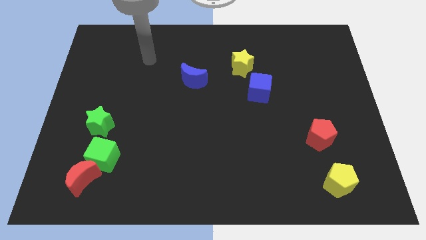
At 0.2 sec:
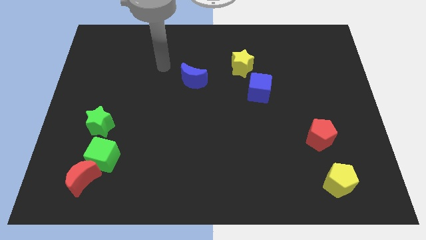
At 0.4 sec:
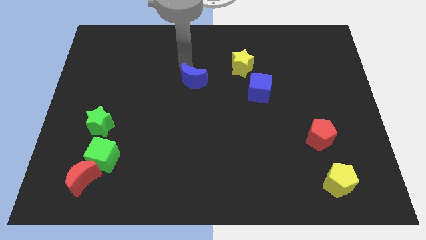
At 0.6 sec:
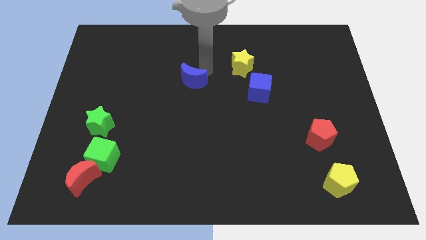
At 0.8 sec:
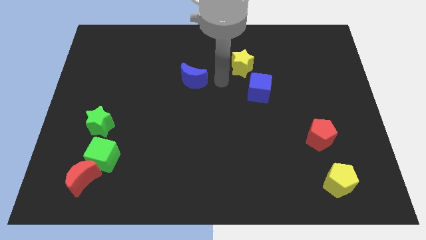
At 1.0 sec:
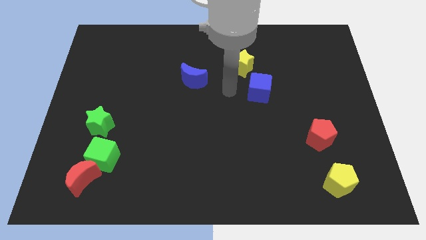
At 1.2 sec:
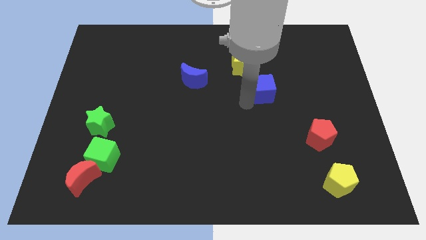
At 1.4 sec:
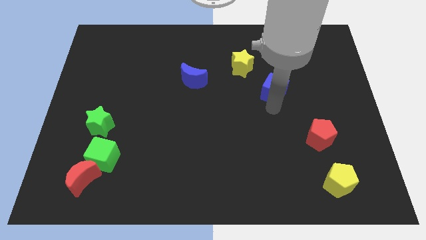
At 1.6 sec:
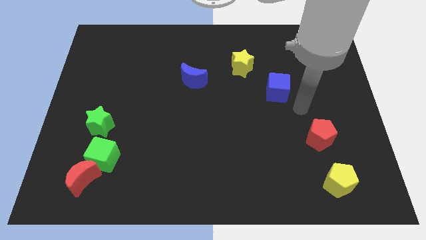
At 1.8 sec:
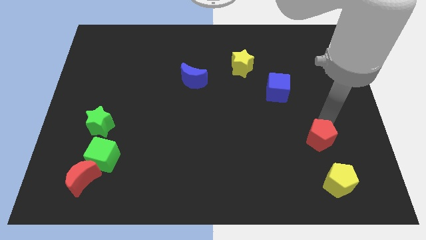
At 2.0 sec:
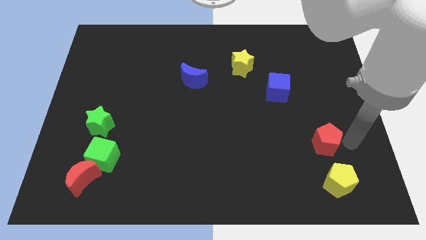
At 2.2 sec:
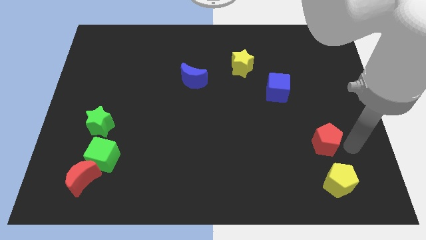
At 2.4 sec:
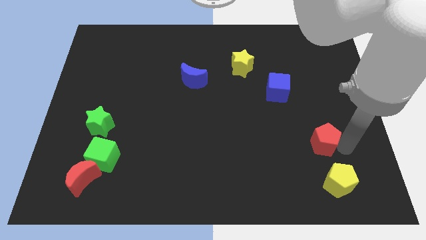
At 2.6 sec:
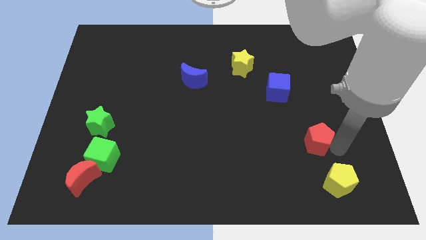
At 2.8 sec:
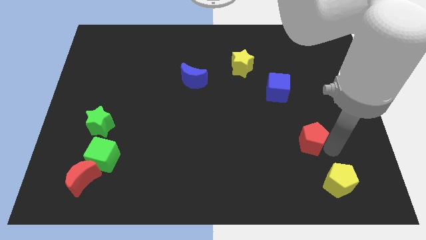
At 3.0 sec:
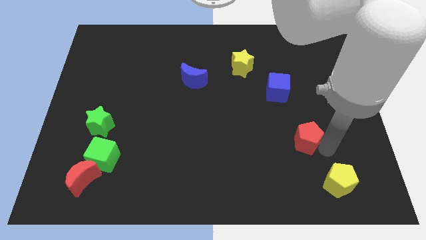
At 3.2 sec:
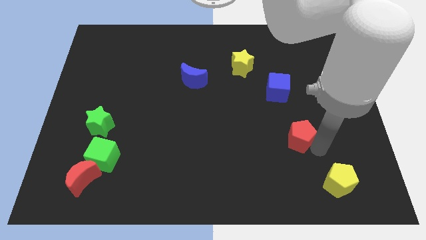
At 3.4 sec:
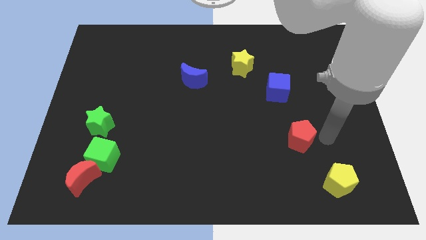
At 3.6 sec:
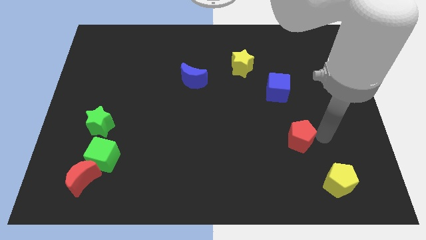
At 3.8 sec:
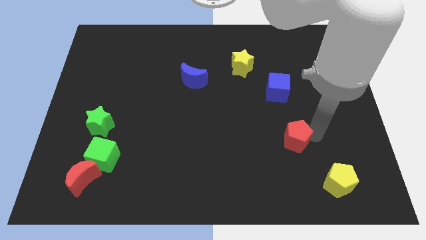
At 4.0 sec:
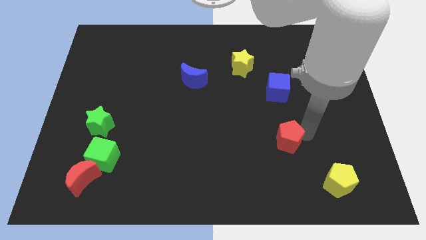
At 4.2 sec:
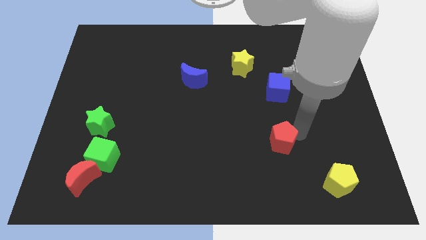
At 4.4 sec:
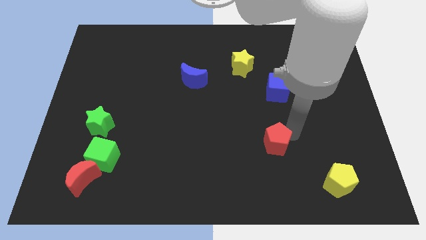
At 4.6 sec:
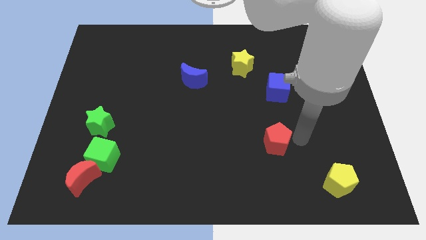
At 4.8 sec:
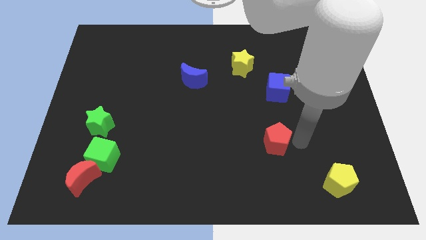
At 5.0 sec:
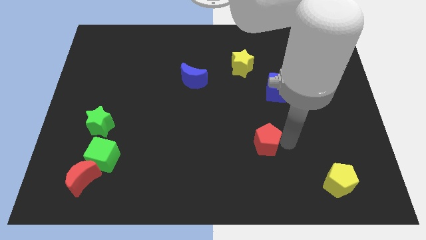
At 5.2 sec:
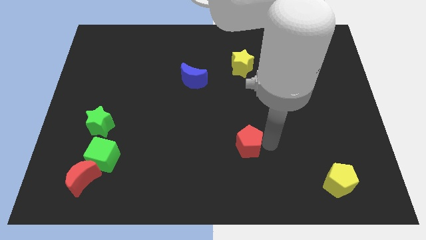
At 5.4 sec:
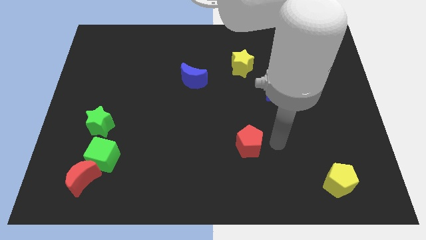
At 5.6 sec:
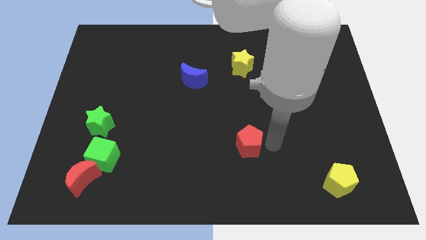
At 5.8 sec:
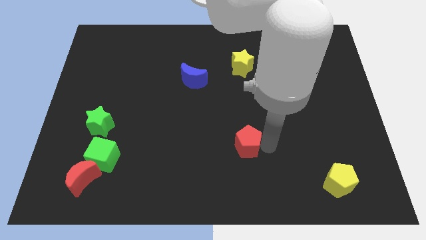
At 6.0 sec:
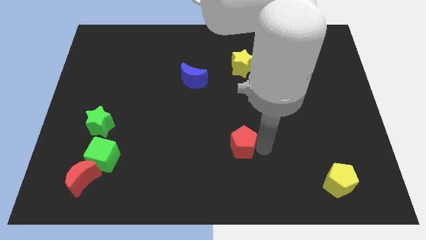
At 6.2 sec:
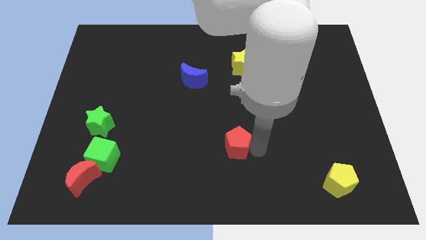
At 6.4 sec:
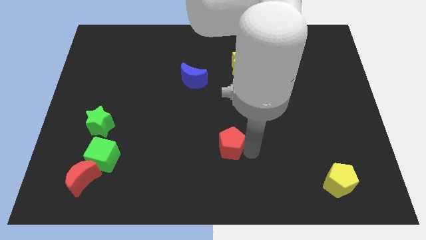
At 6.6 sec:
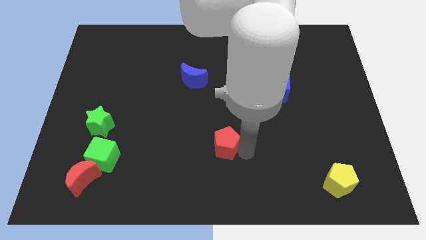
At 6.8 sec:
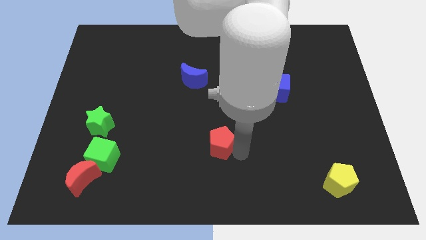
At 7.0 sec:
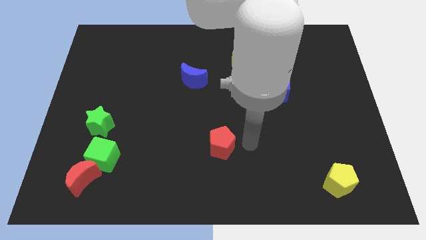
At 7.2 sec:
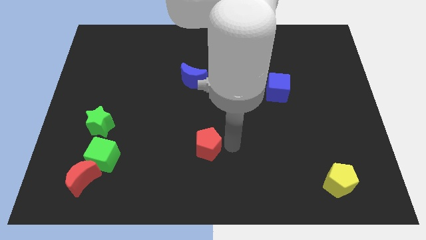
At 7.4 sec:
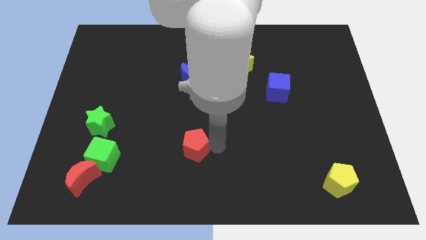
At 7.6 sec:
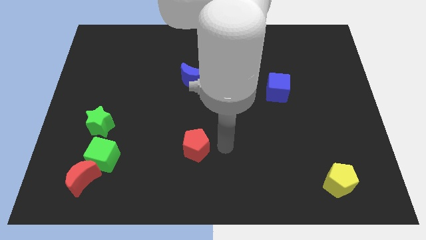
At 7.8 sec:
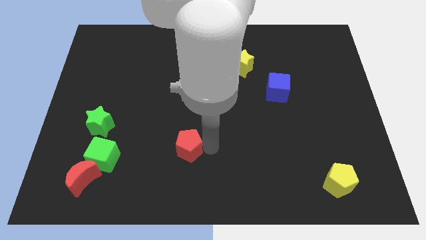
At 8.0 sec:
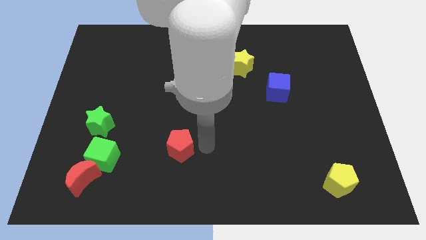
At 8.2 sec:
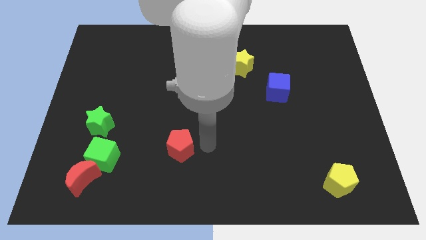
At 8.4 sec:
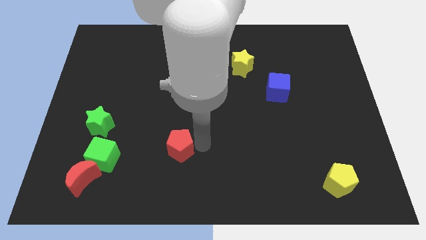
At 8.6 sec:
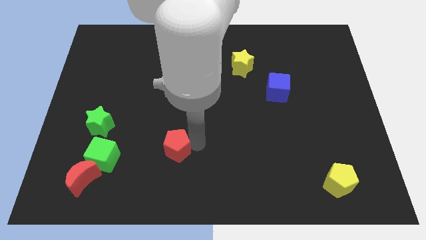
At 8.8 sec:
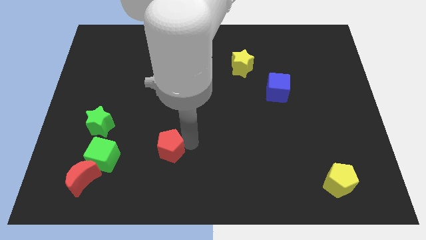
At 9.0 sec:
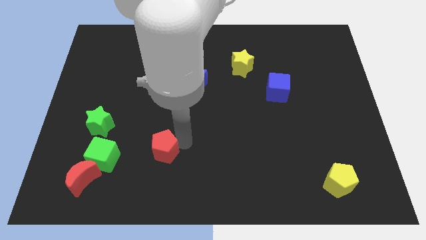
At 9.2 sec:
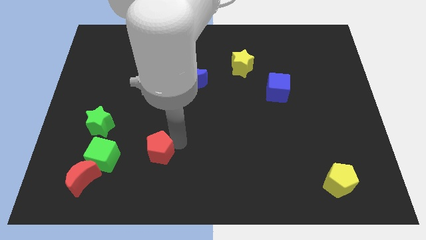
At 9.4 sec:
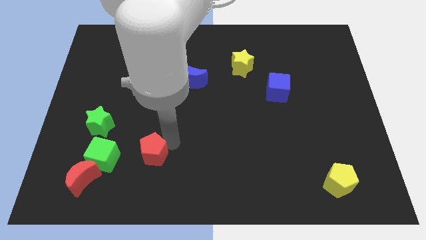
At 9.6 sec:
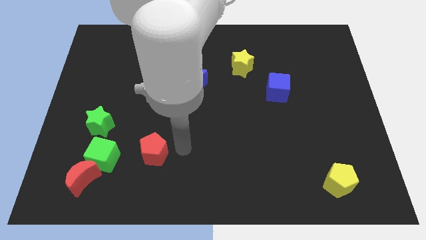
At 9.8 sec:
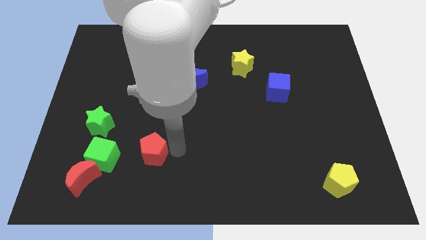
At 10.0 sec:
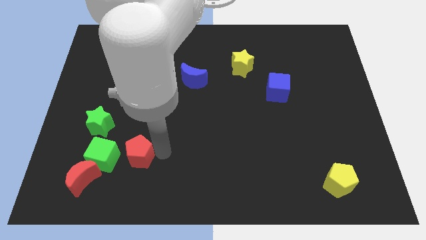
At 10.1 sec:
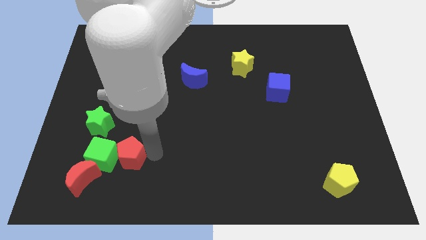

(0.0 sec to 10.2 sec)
slide the red pentagon next to the green cube

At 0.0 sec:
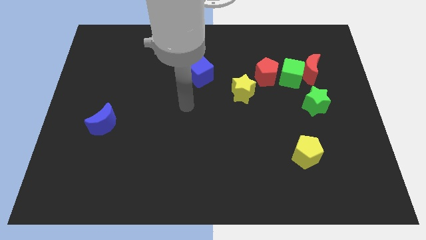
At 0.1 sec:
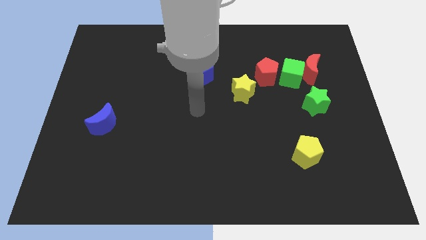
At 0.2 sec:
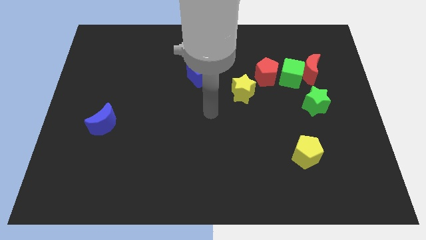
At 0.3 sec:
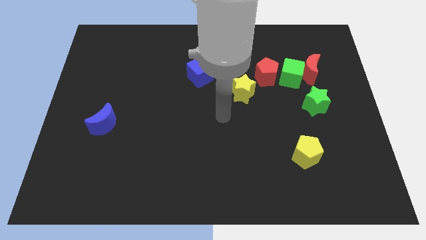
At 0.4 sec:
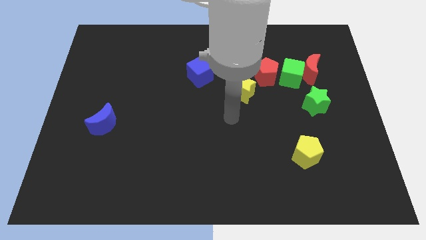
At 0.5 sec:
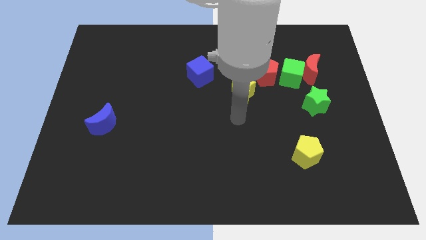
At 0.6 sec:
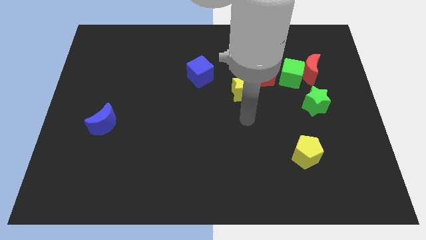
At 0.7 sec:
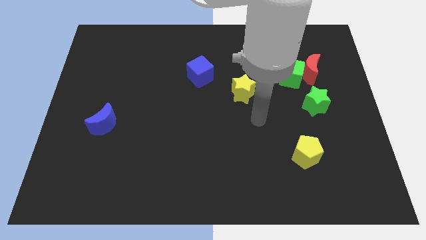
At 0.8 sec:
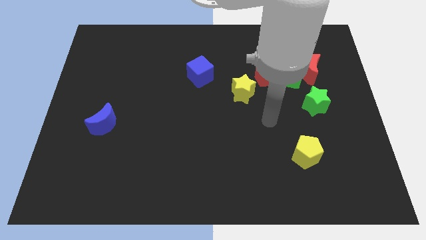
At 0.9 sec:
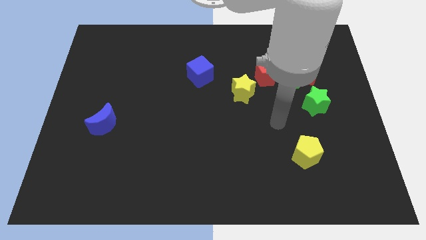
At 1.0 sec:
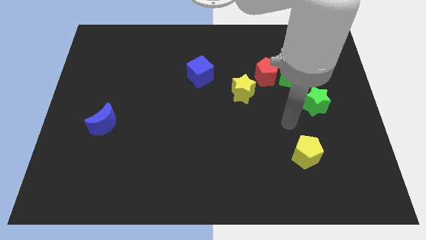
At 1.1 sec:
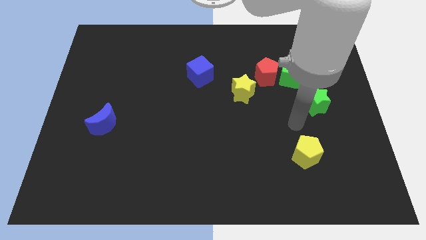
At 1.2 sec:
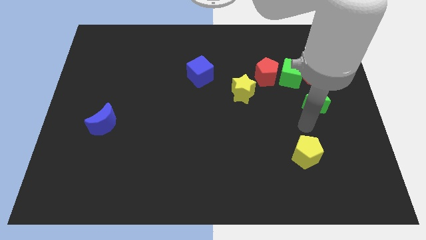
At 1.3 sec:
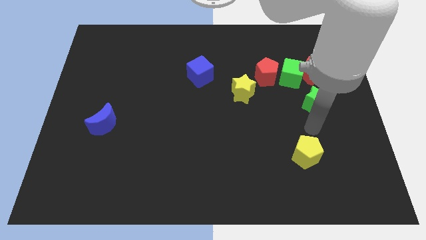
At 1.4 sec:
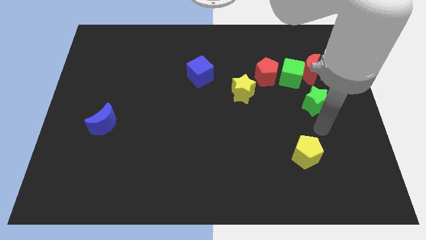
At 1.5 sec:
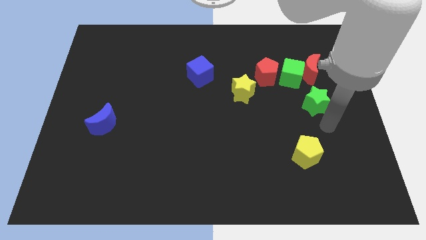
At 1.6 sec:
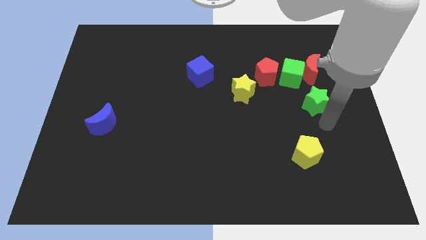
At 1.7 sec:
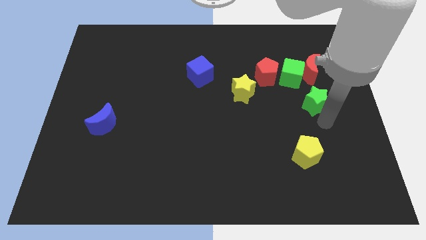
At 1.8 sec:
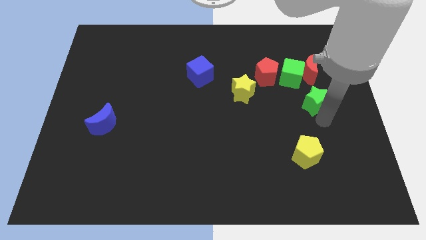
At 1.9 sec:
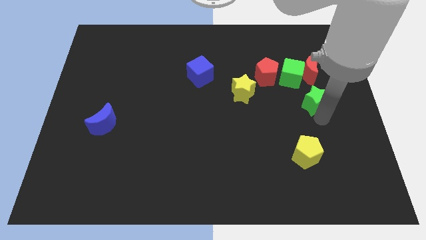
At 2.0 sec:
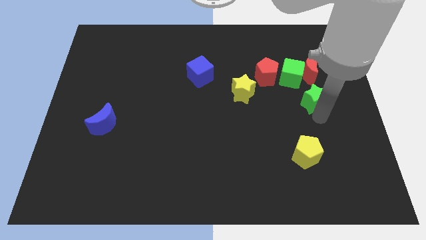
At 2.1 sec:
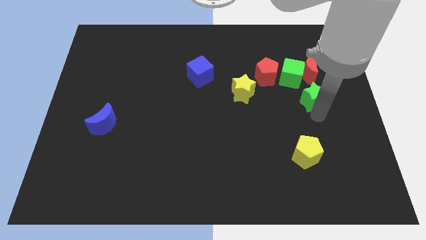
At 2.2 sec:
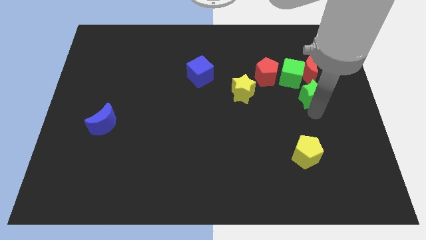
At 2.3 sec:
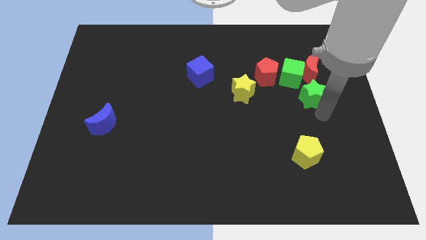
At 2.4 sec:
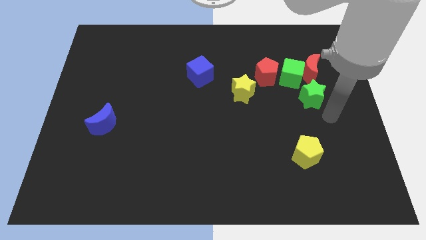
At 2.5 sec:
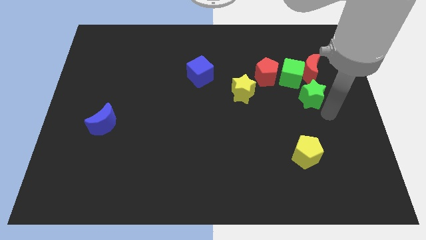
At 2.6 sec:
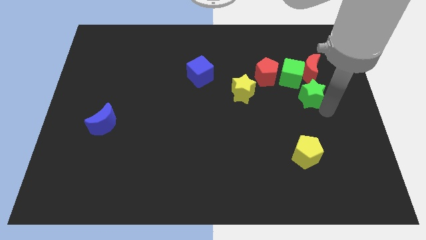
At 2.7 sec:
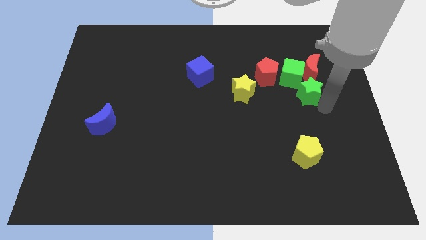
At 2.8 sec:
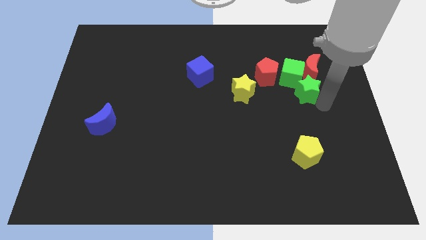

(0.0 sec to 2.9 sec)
push the green star close to the green cube
